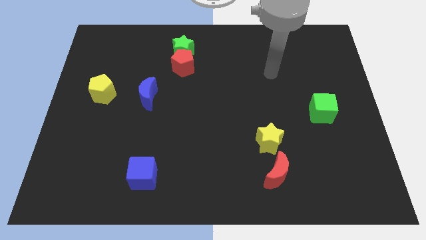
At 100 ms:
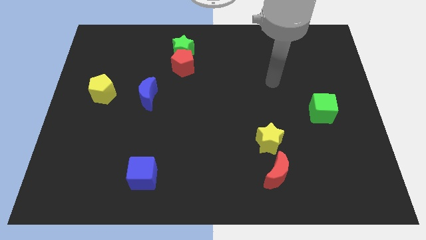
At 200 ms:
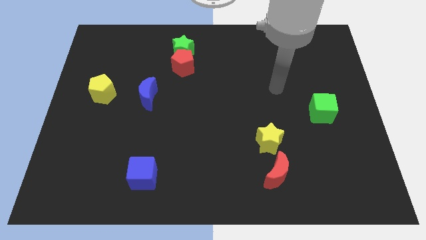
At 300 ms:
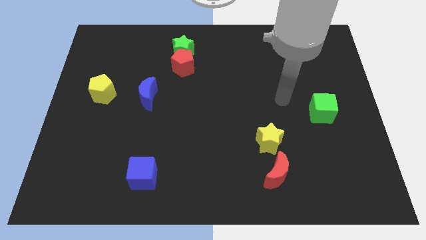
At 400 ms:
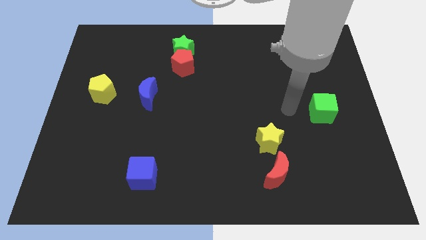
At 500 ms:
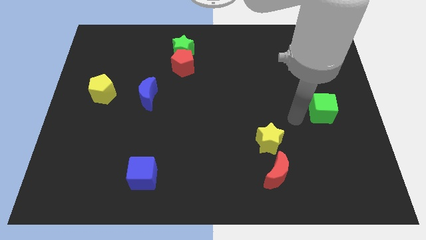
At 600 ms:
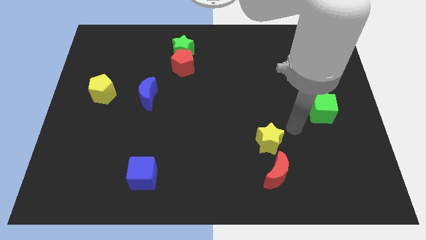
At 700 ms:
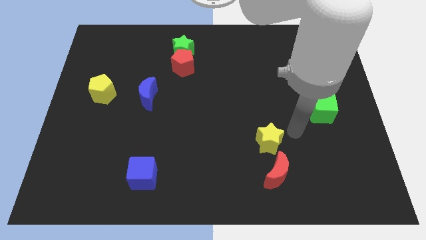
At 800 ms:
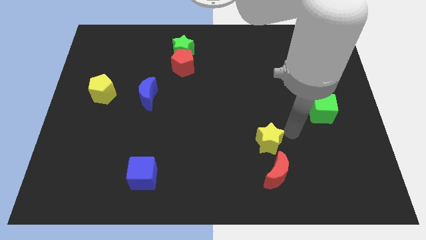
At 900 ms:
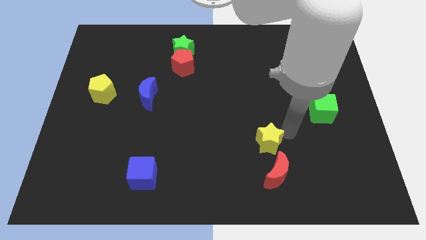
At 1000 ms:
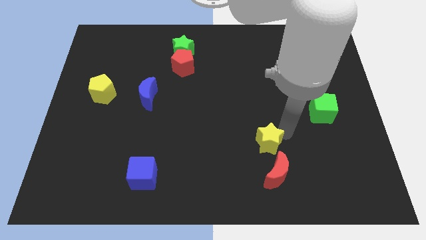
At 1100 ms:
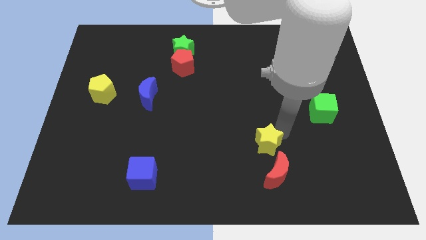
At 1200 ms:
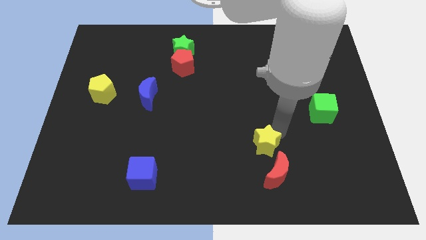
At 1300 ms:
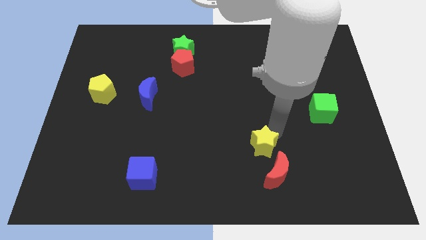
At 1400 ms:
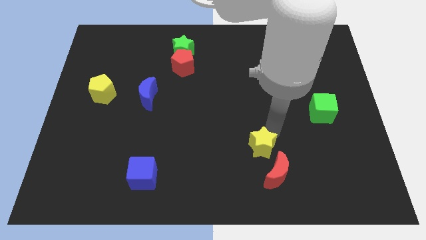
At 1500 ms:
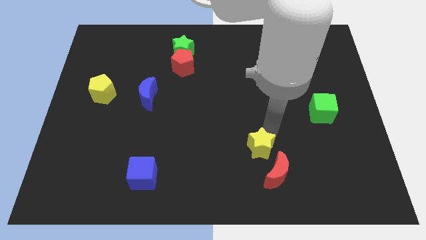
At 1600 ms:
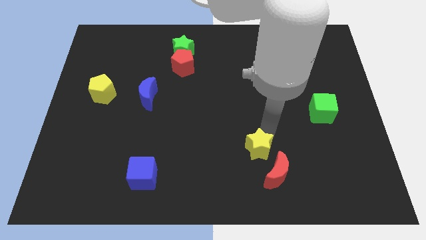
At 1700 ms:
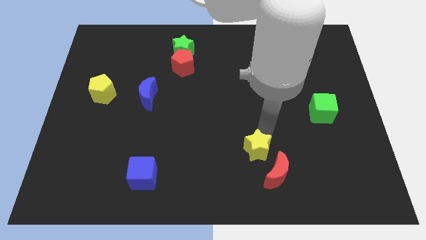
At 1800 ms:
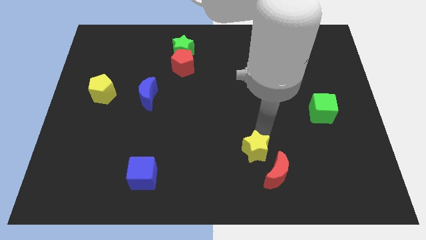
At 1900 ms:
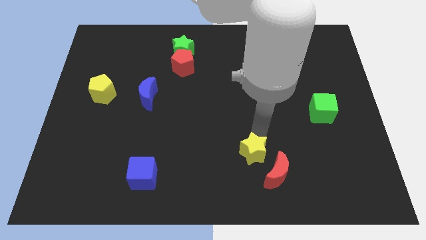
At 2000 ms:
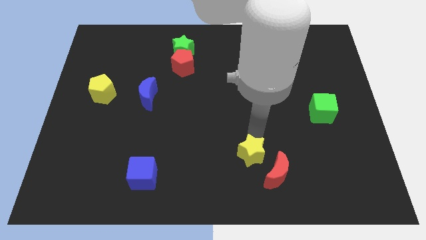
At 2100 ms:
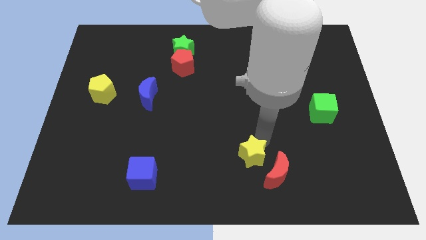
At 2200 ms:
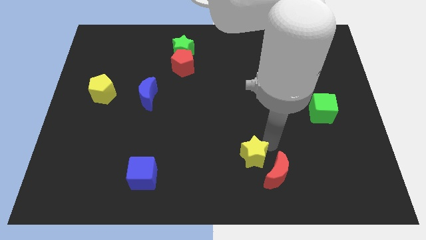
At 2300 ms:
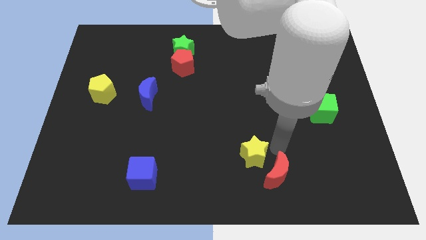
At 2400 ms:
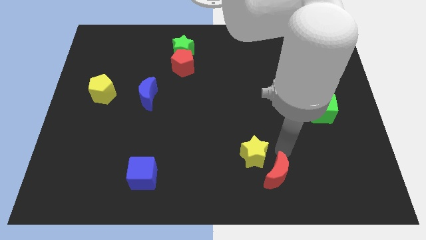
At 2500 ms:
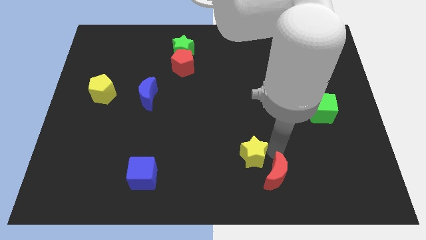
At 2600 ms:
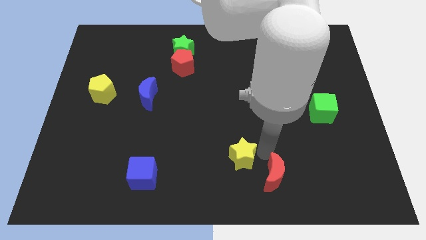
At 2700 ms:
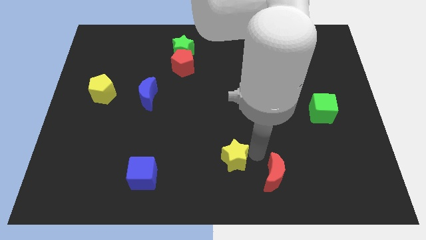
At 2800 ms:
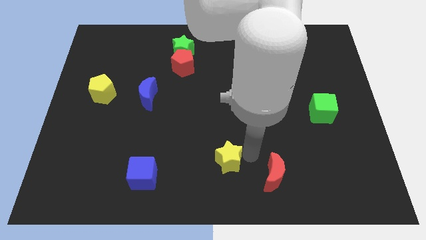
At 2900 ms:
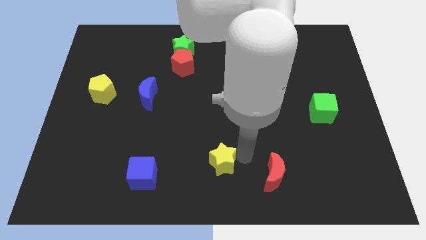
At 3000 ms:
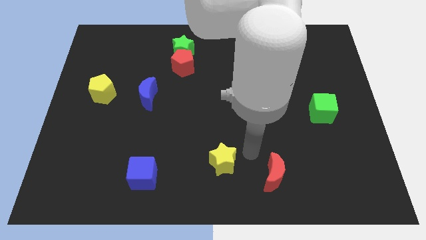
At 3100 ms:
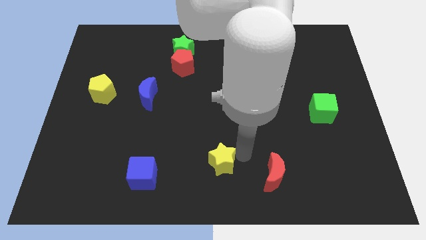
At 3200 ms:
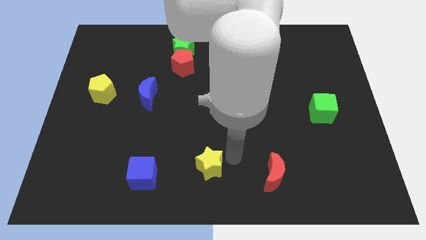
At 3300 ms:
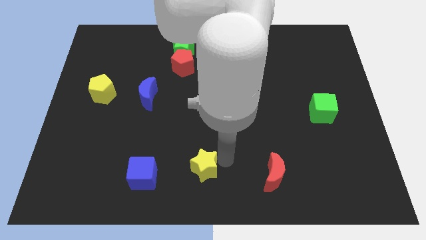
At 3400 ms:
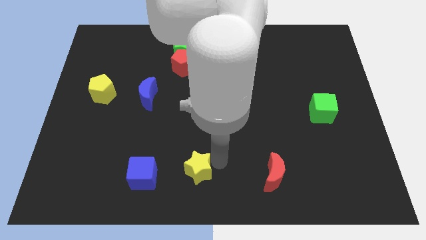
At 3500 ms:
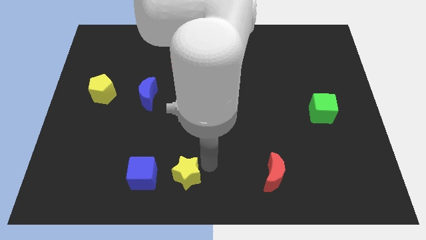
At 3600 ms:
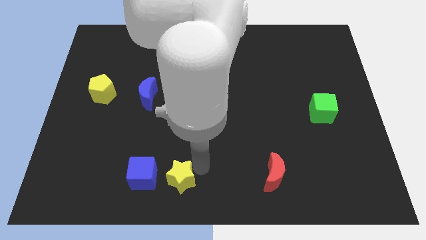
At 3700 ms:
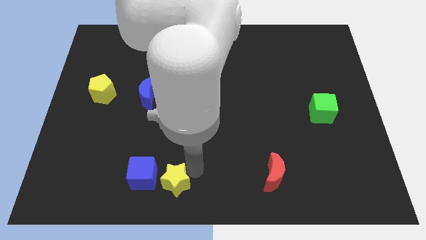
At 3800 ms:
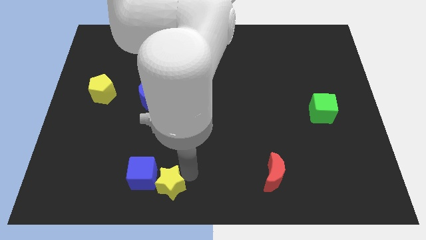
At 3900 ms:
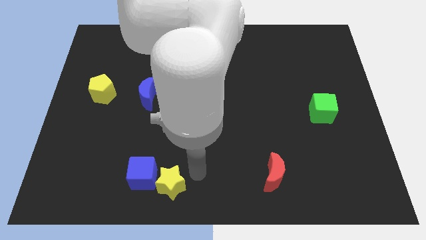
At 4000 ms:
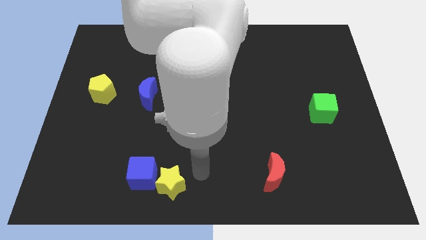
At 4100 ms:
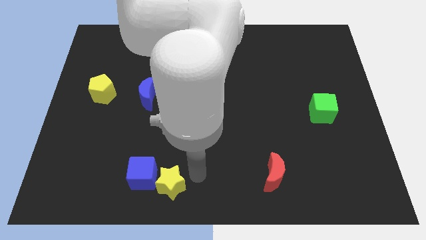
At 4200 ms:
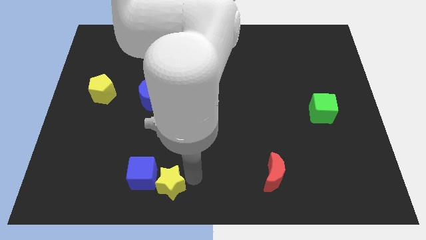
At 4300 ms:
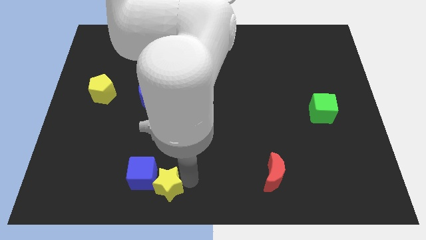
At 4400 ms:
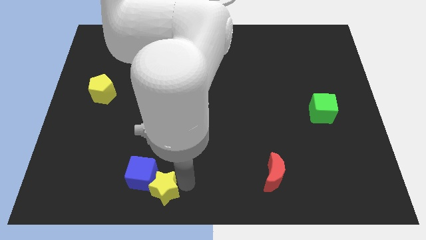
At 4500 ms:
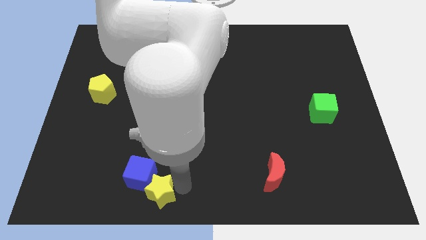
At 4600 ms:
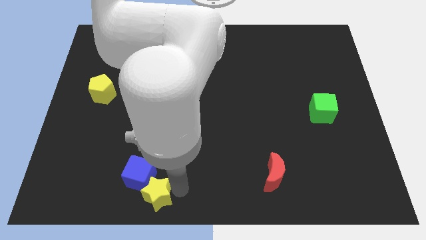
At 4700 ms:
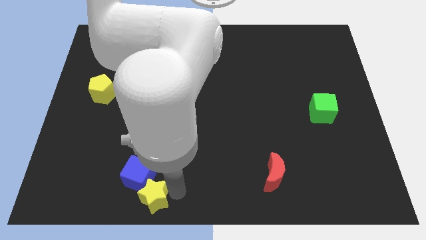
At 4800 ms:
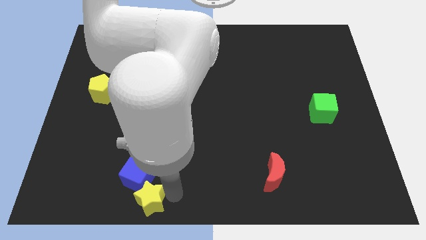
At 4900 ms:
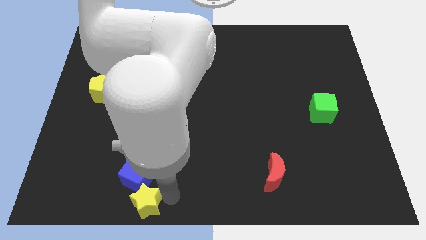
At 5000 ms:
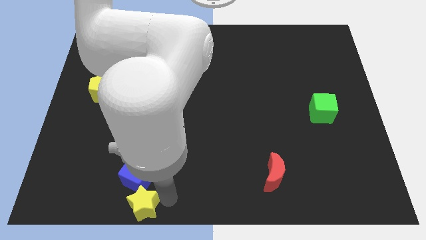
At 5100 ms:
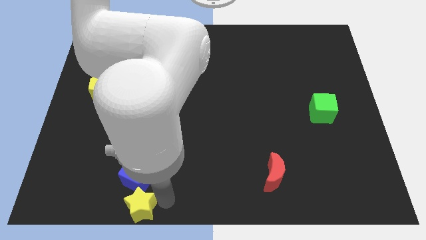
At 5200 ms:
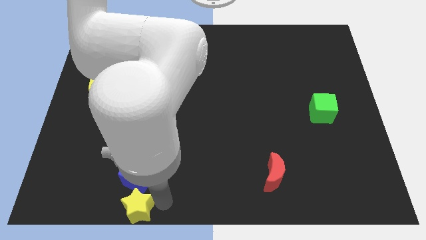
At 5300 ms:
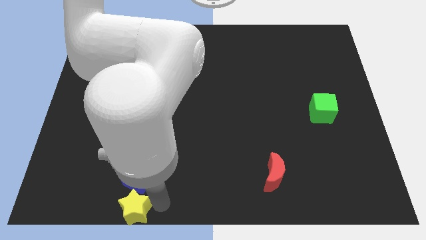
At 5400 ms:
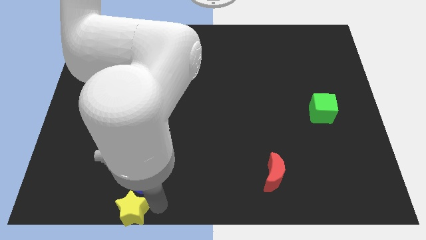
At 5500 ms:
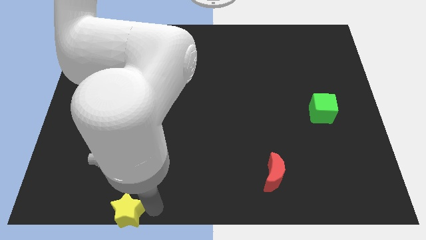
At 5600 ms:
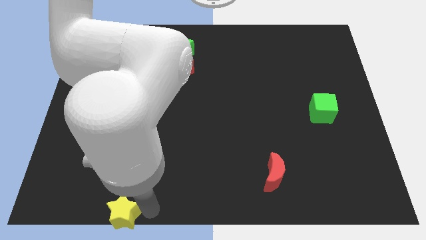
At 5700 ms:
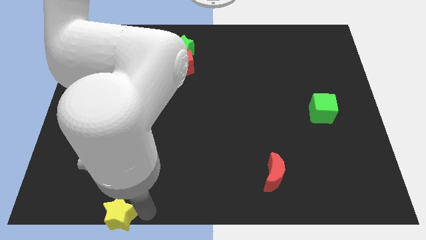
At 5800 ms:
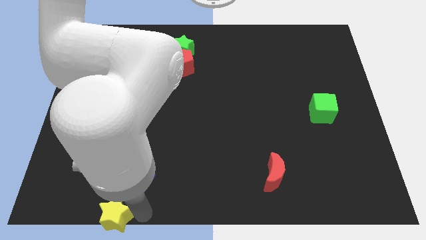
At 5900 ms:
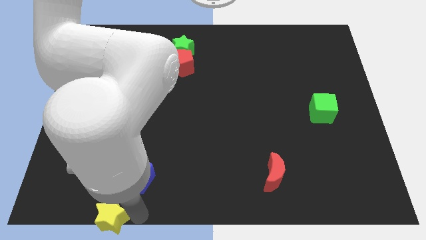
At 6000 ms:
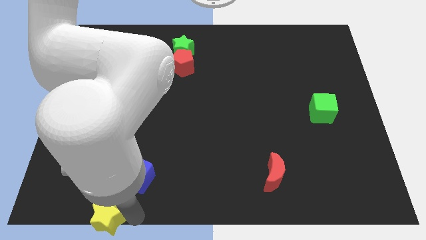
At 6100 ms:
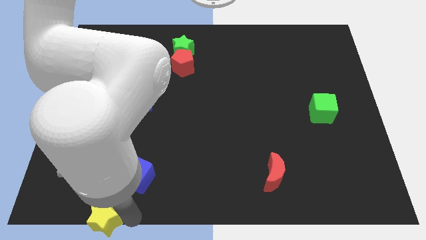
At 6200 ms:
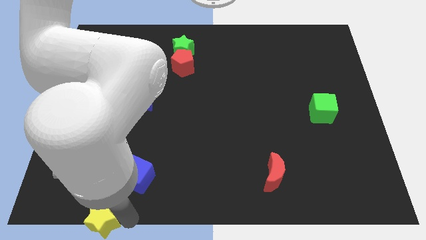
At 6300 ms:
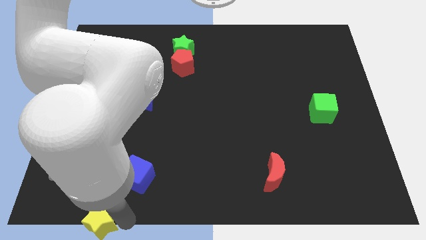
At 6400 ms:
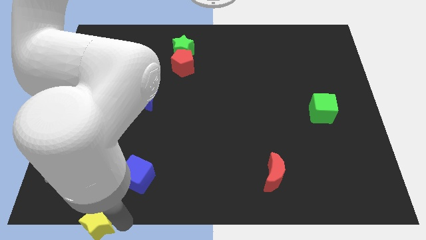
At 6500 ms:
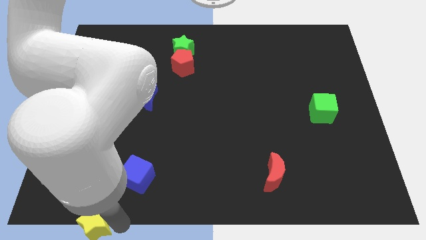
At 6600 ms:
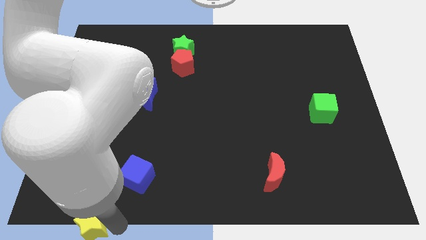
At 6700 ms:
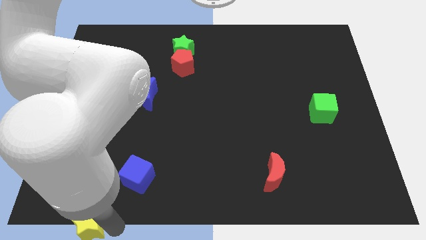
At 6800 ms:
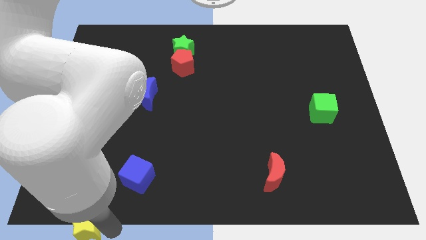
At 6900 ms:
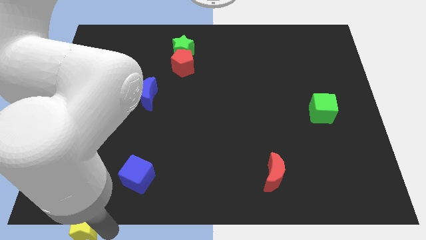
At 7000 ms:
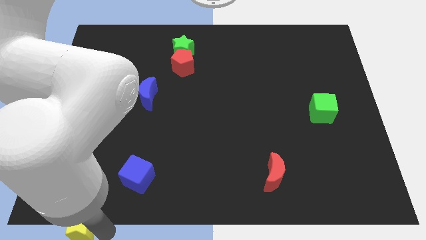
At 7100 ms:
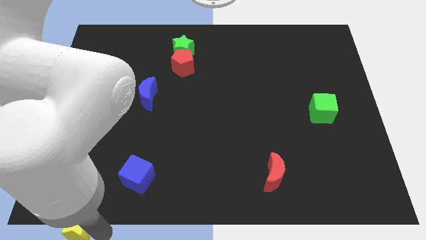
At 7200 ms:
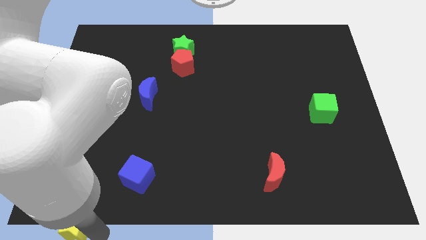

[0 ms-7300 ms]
push the yellow star to the bottom left of the board
